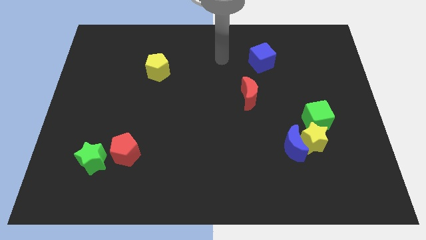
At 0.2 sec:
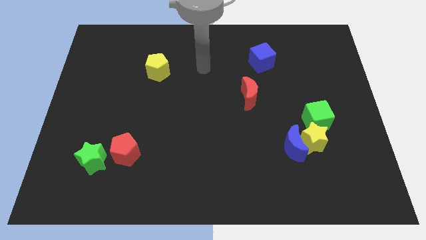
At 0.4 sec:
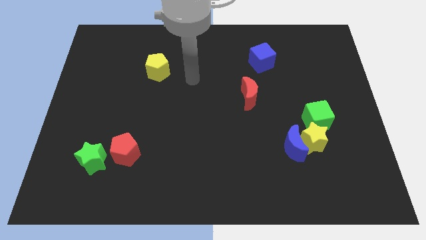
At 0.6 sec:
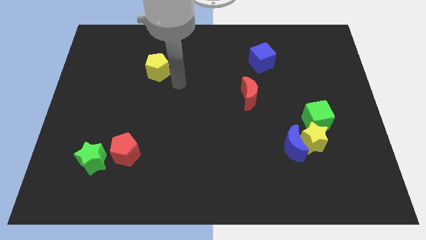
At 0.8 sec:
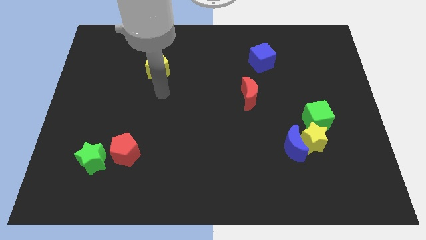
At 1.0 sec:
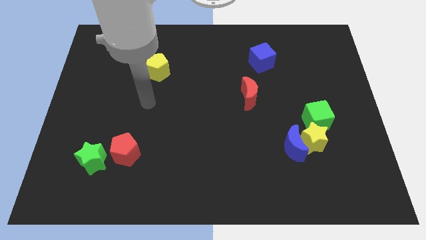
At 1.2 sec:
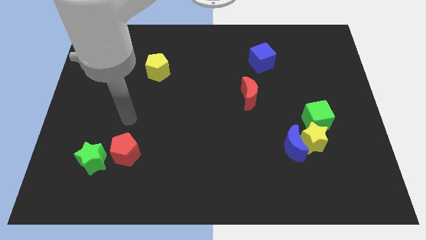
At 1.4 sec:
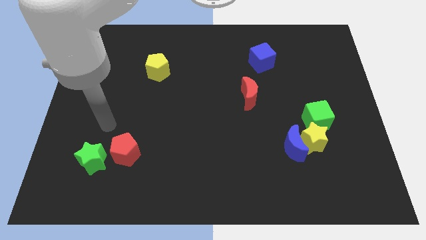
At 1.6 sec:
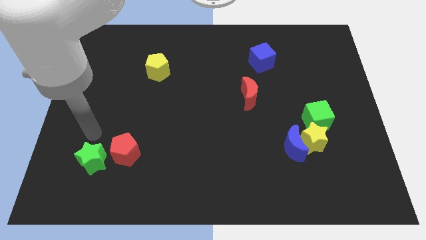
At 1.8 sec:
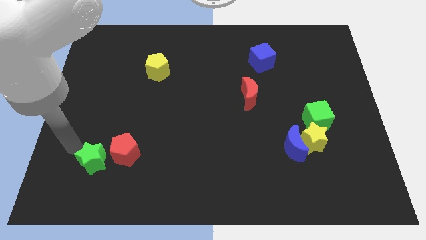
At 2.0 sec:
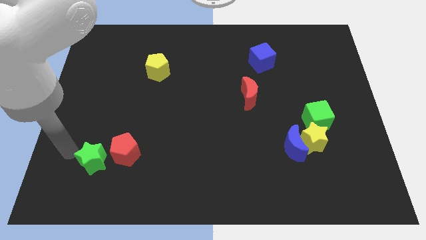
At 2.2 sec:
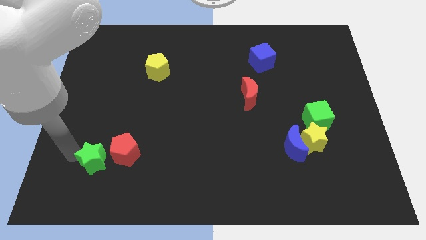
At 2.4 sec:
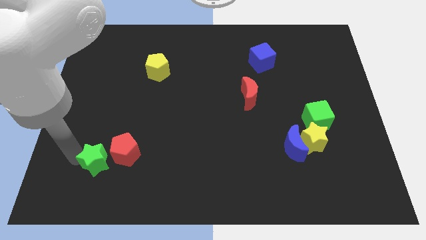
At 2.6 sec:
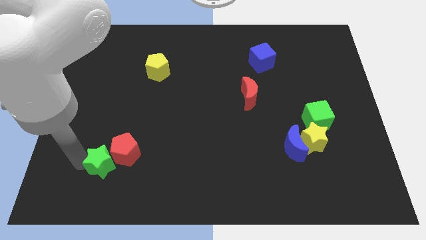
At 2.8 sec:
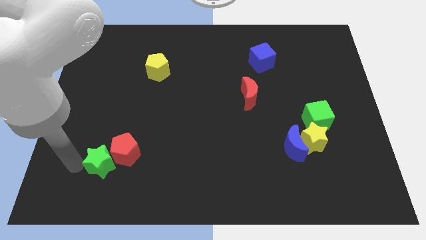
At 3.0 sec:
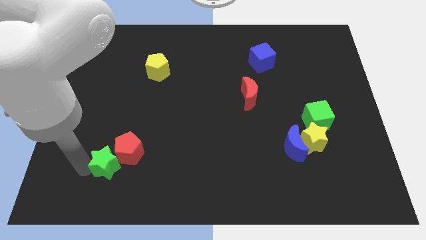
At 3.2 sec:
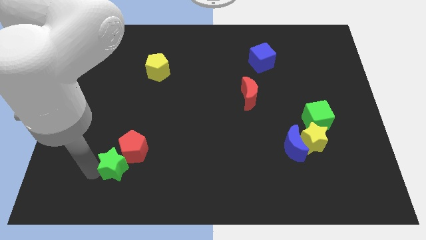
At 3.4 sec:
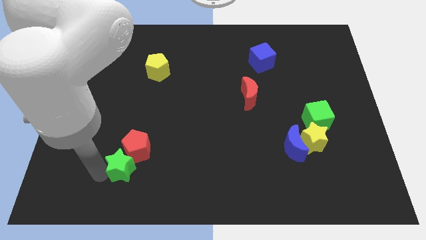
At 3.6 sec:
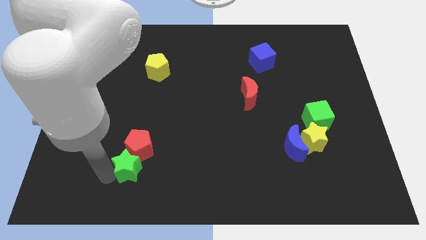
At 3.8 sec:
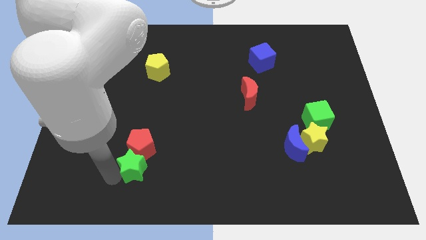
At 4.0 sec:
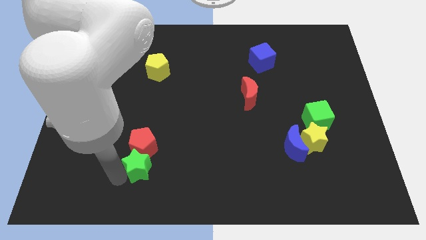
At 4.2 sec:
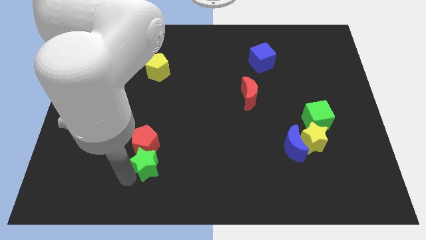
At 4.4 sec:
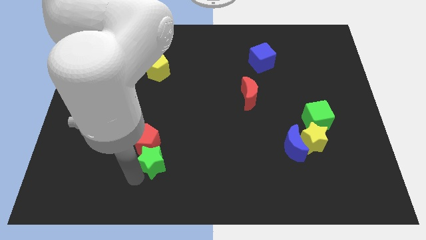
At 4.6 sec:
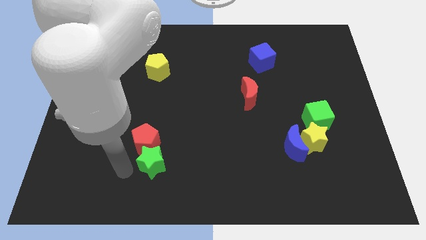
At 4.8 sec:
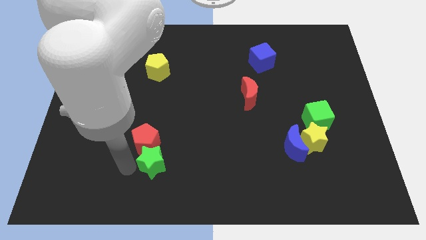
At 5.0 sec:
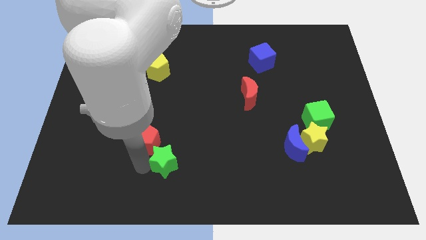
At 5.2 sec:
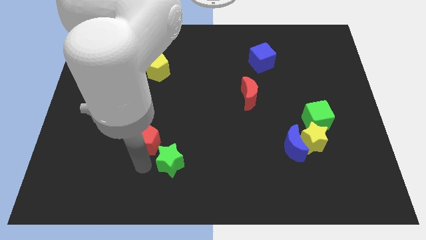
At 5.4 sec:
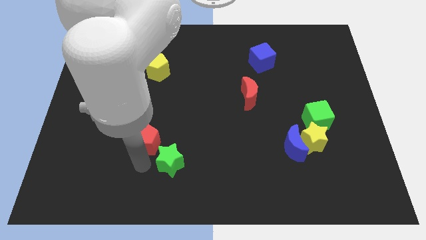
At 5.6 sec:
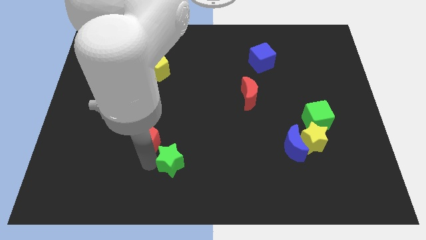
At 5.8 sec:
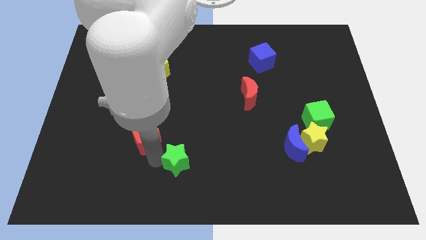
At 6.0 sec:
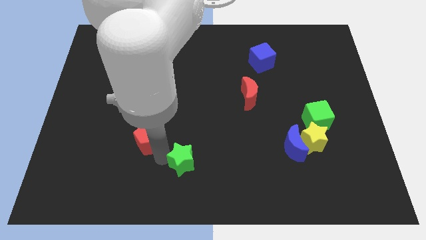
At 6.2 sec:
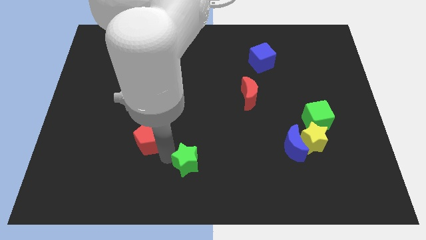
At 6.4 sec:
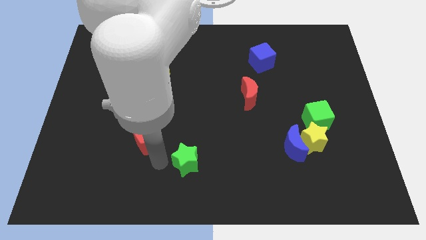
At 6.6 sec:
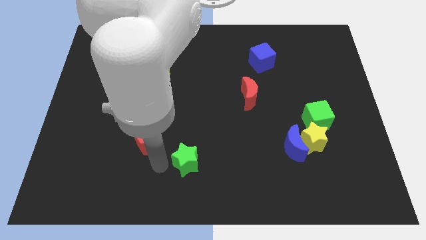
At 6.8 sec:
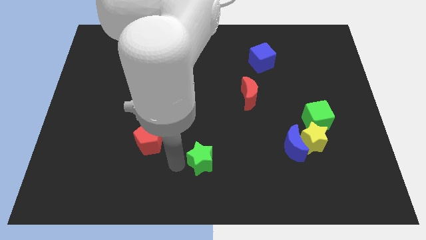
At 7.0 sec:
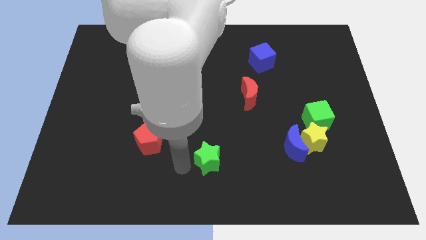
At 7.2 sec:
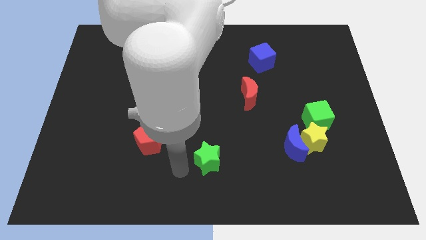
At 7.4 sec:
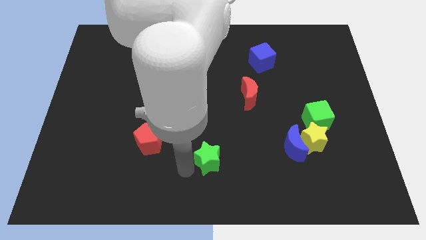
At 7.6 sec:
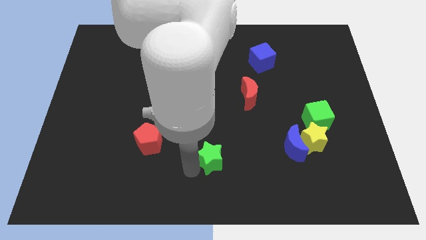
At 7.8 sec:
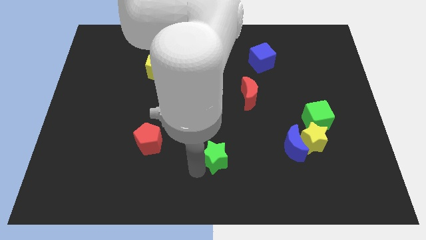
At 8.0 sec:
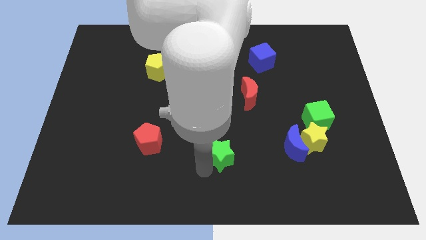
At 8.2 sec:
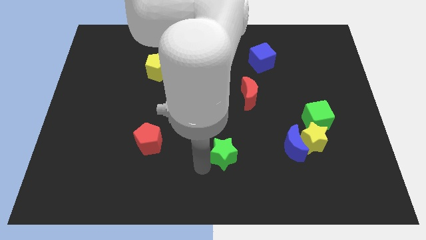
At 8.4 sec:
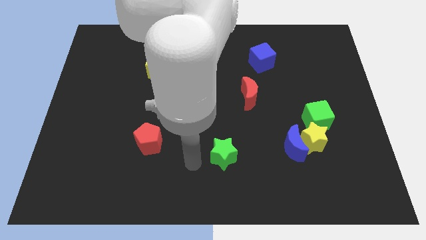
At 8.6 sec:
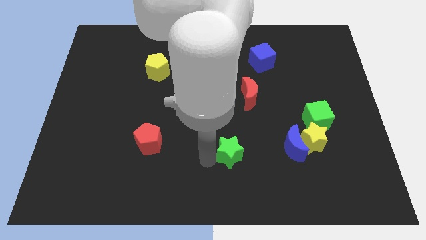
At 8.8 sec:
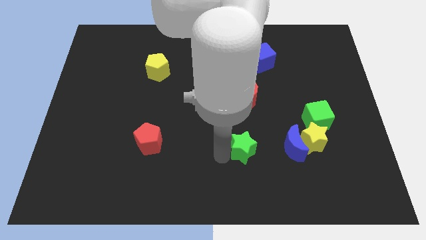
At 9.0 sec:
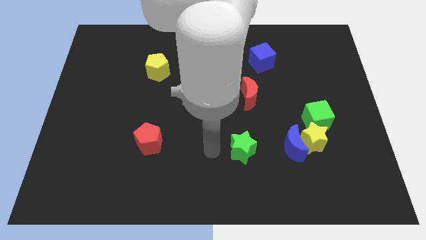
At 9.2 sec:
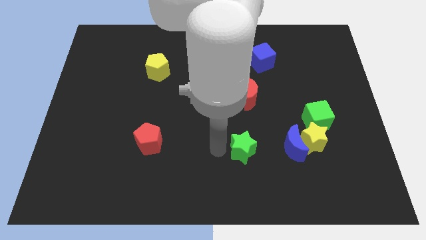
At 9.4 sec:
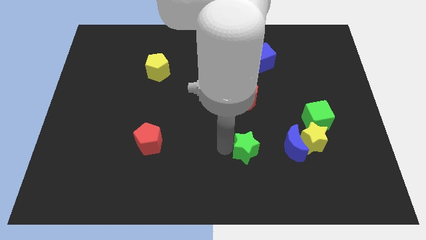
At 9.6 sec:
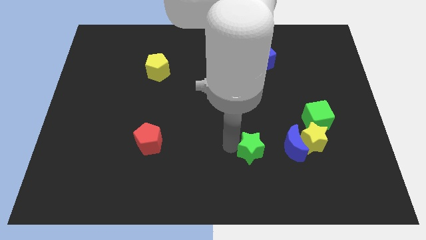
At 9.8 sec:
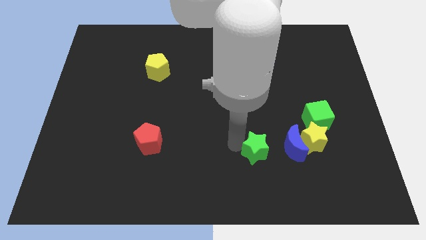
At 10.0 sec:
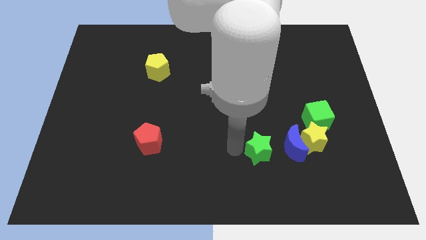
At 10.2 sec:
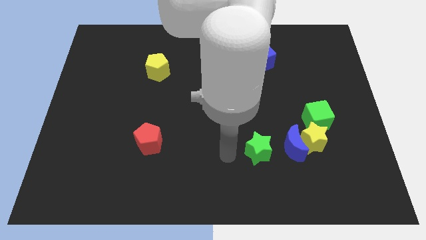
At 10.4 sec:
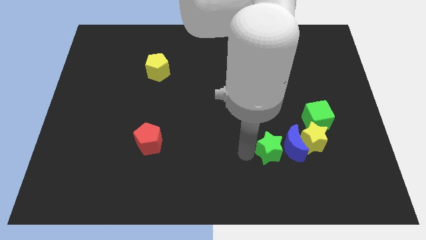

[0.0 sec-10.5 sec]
move the green star to the blue moon

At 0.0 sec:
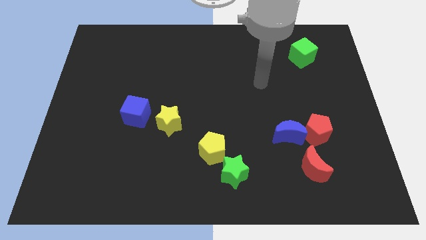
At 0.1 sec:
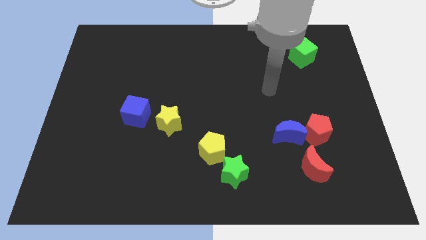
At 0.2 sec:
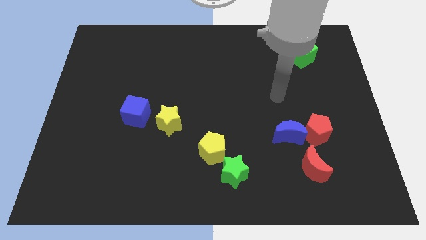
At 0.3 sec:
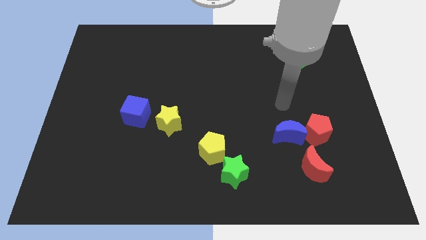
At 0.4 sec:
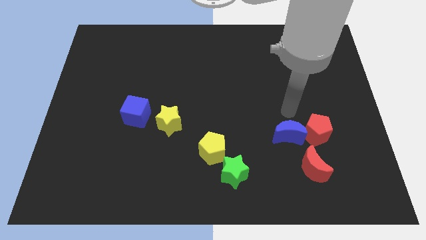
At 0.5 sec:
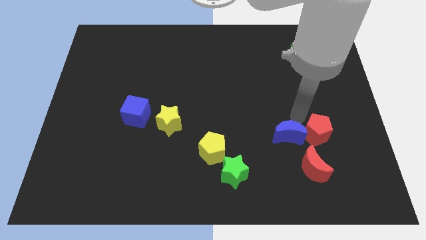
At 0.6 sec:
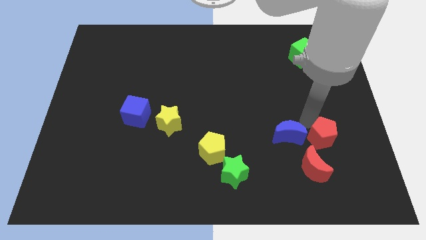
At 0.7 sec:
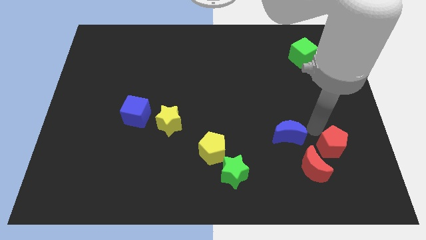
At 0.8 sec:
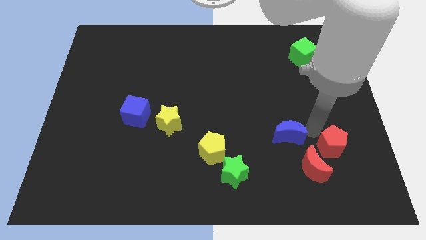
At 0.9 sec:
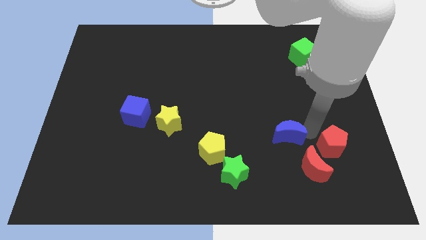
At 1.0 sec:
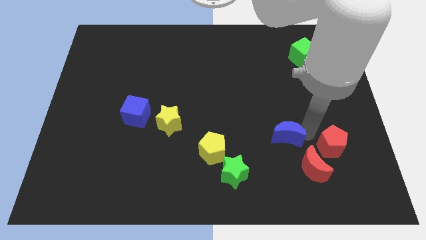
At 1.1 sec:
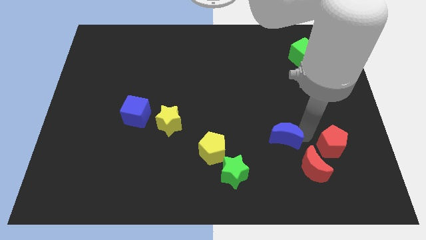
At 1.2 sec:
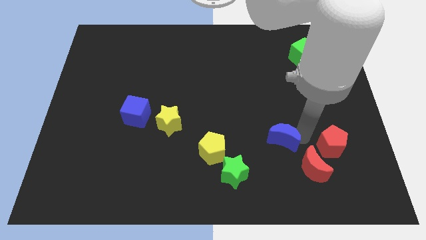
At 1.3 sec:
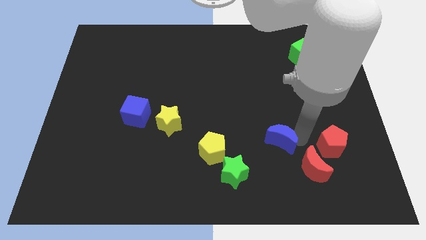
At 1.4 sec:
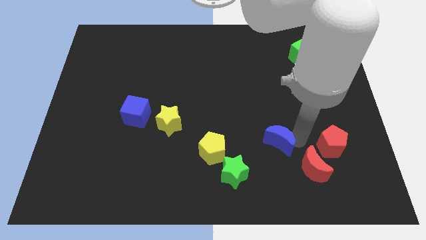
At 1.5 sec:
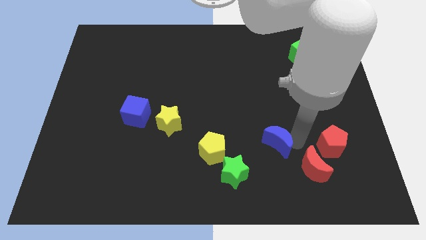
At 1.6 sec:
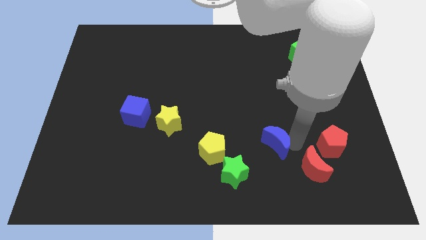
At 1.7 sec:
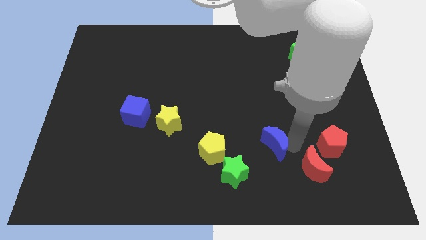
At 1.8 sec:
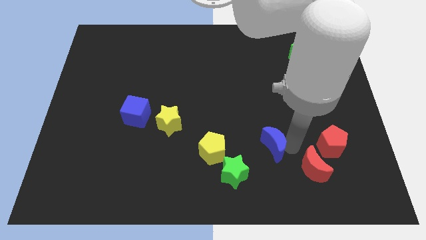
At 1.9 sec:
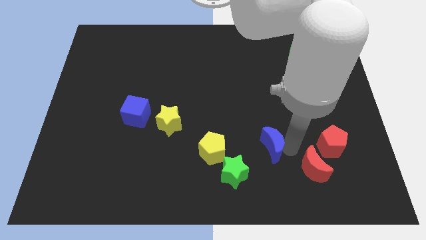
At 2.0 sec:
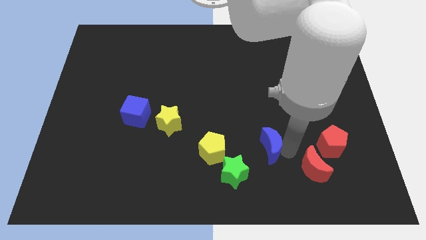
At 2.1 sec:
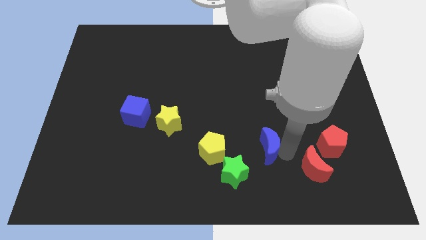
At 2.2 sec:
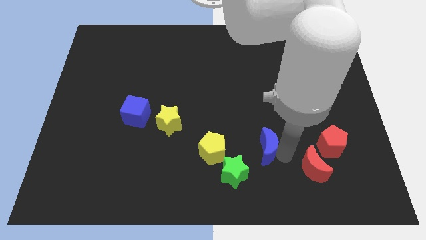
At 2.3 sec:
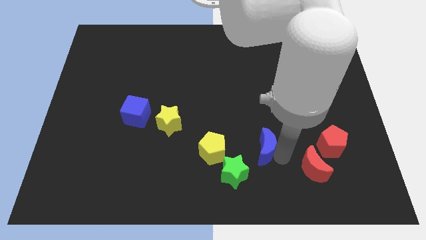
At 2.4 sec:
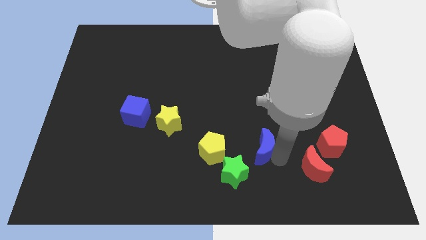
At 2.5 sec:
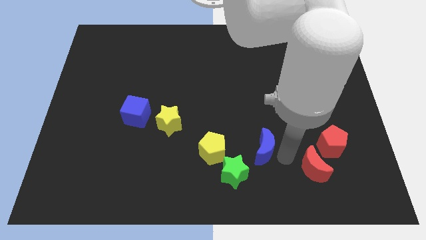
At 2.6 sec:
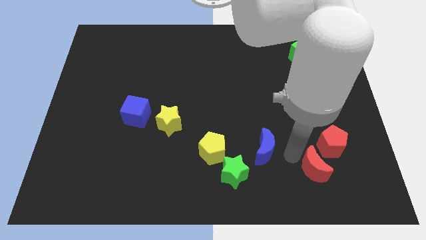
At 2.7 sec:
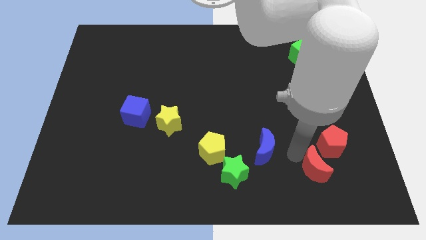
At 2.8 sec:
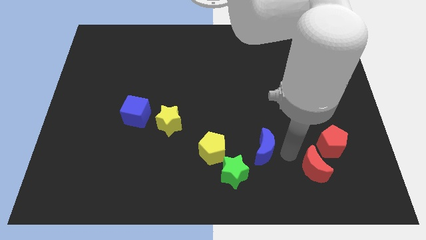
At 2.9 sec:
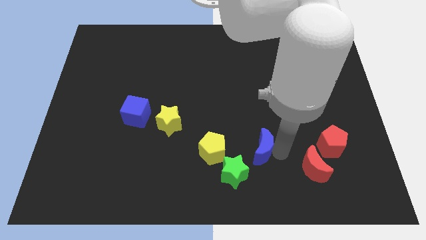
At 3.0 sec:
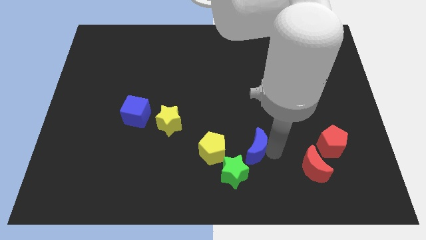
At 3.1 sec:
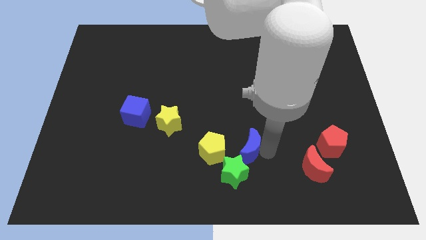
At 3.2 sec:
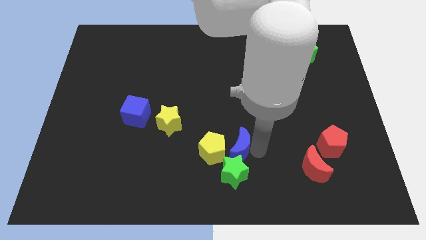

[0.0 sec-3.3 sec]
slide the blue moon next to the yellow pentagon
